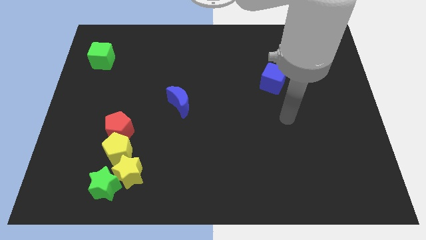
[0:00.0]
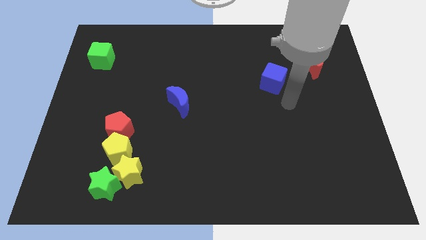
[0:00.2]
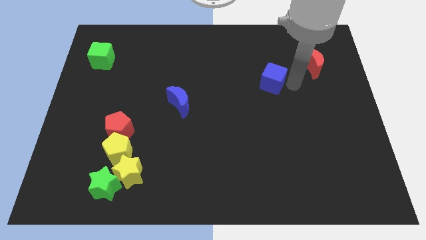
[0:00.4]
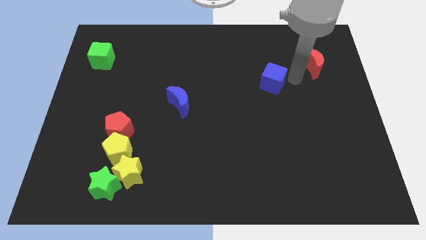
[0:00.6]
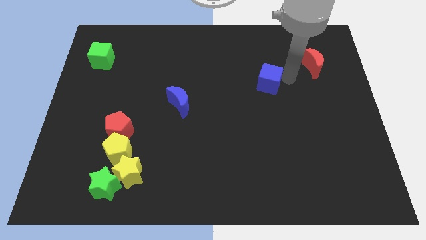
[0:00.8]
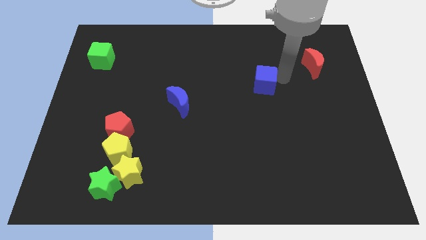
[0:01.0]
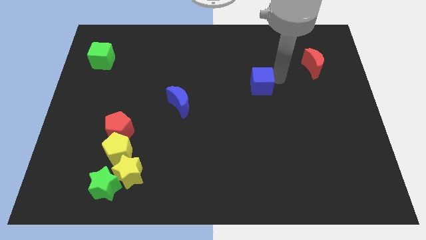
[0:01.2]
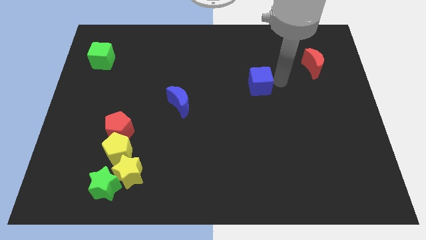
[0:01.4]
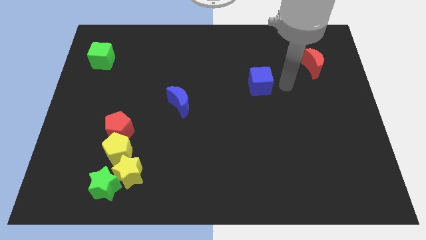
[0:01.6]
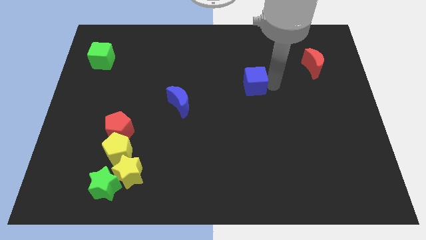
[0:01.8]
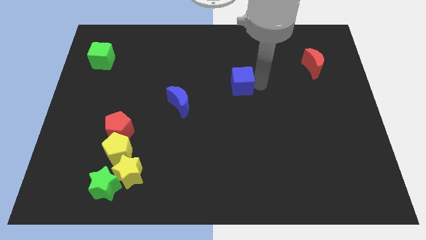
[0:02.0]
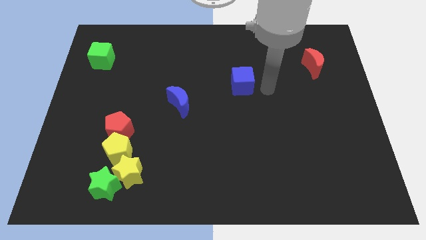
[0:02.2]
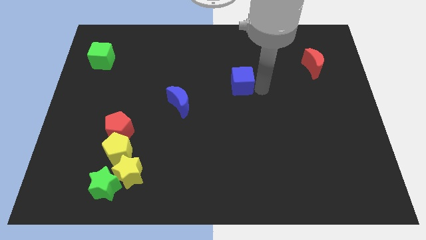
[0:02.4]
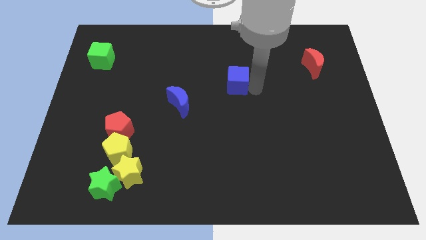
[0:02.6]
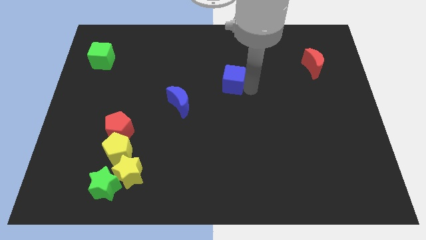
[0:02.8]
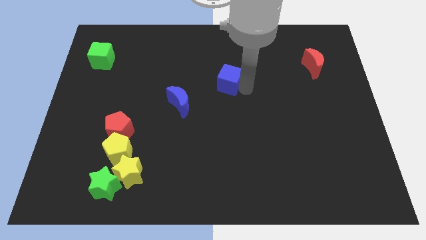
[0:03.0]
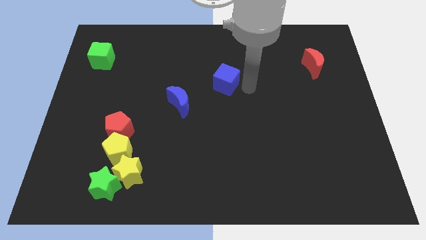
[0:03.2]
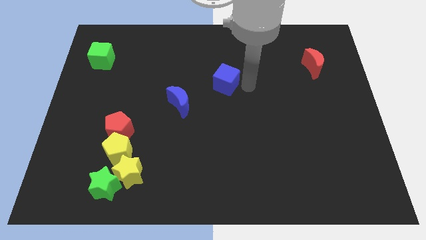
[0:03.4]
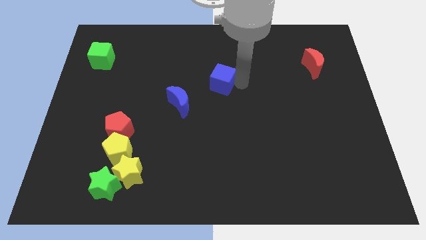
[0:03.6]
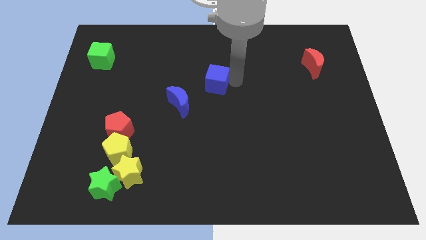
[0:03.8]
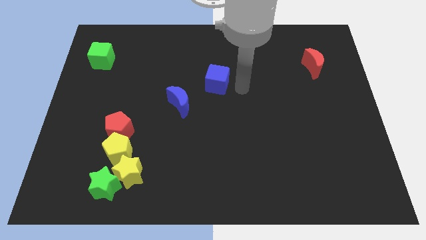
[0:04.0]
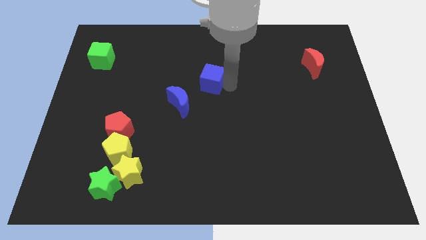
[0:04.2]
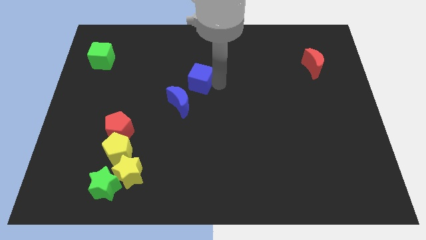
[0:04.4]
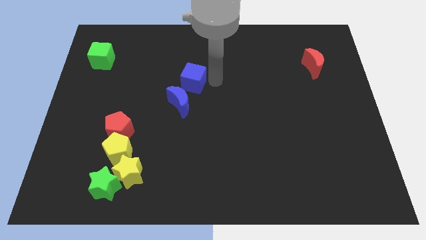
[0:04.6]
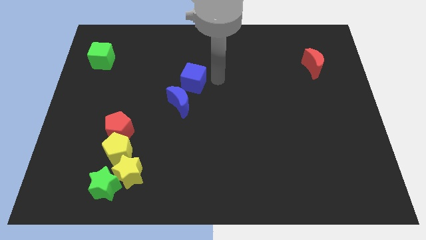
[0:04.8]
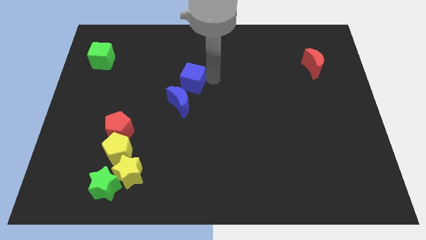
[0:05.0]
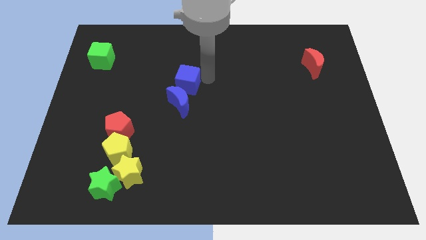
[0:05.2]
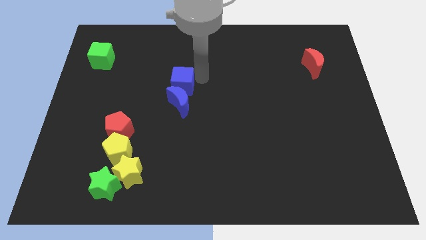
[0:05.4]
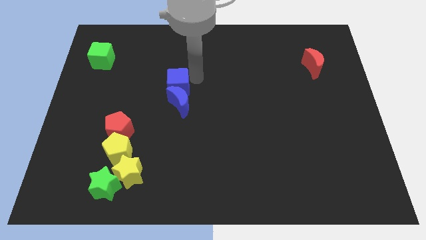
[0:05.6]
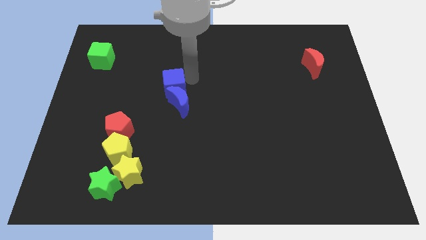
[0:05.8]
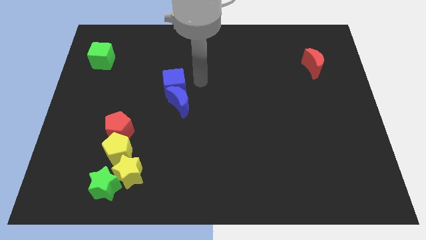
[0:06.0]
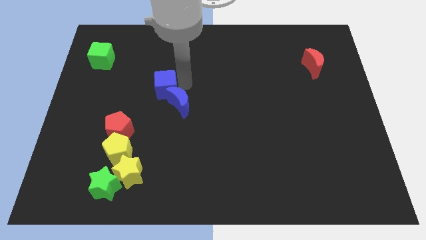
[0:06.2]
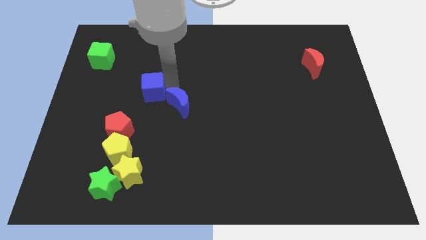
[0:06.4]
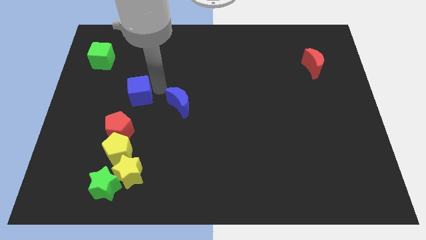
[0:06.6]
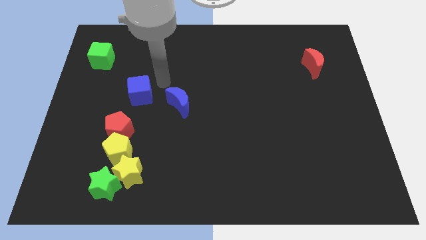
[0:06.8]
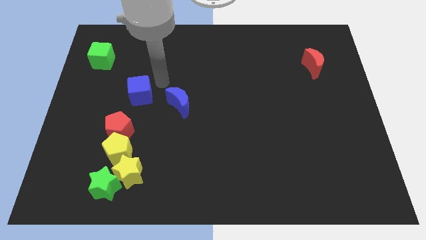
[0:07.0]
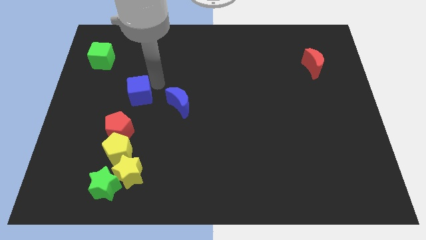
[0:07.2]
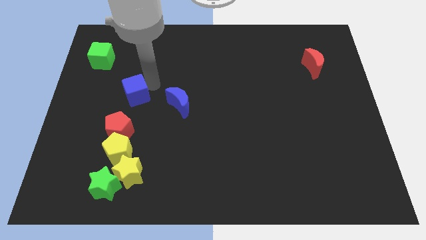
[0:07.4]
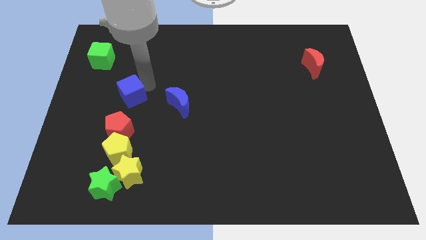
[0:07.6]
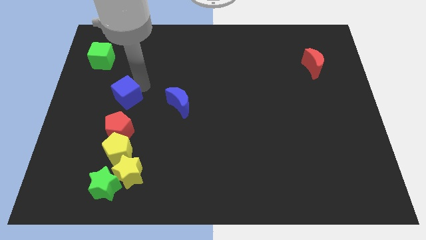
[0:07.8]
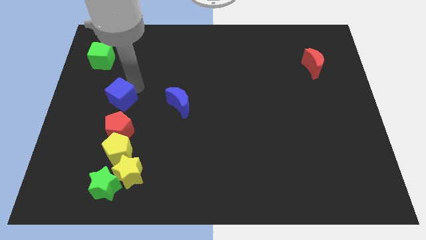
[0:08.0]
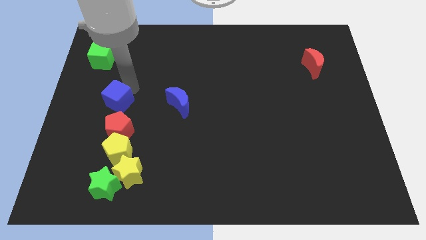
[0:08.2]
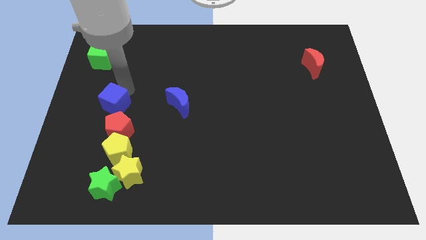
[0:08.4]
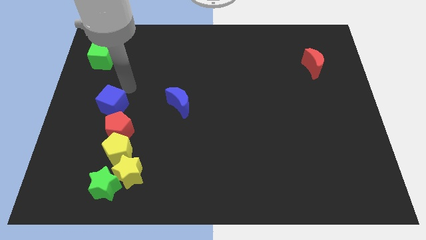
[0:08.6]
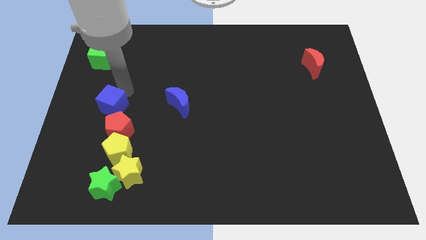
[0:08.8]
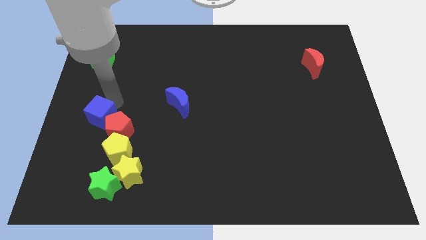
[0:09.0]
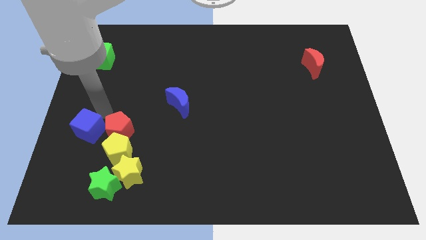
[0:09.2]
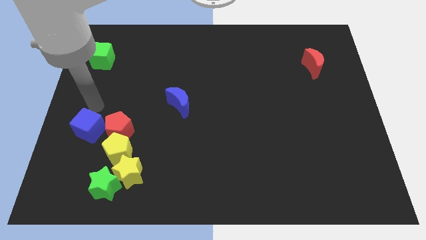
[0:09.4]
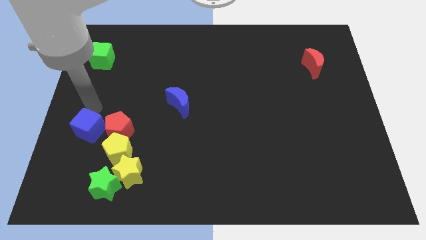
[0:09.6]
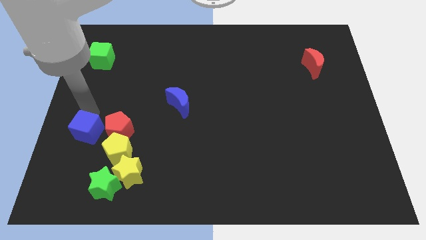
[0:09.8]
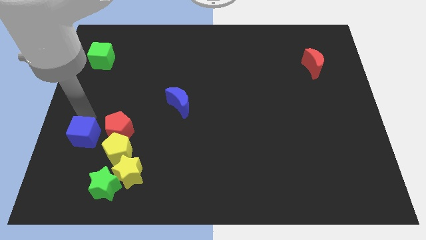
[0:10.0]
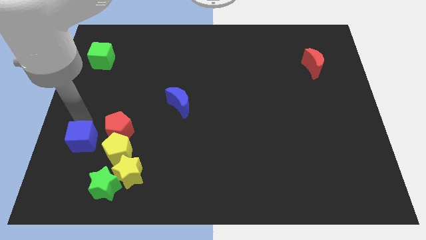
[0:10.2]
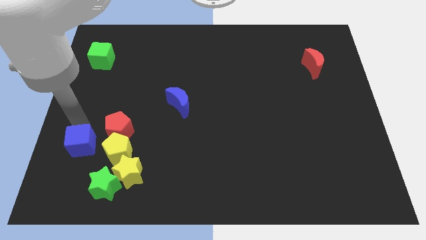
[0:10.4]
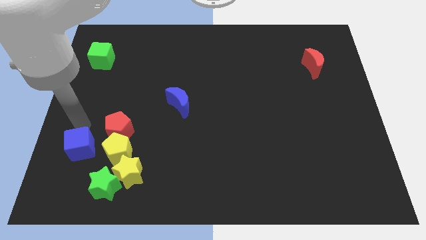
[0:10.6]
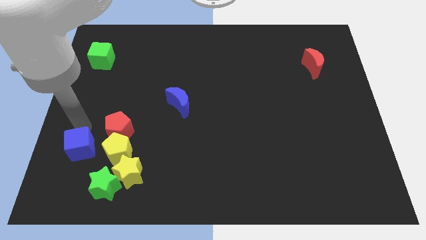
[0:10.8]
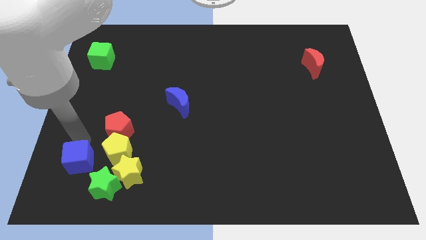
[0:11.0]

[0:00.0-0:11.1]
put the blue cube left of the yellow star

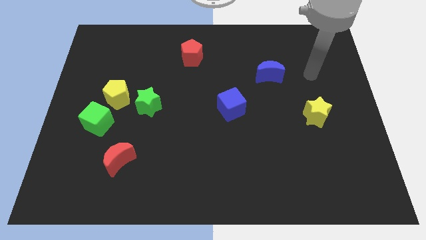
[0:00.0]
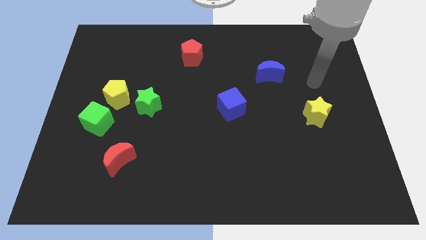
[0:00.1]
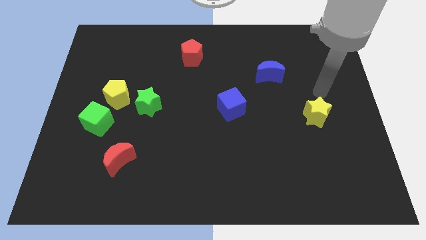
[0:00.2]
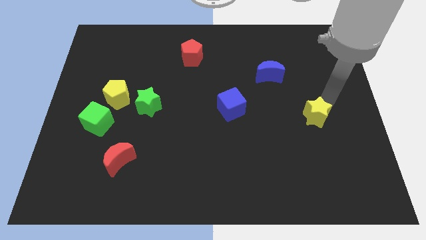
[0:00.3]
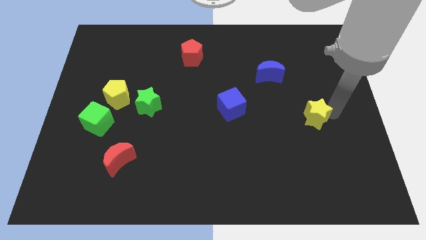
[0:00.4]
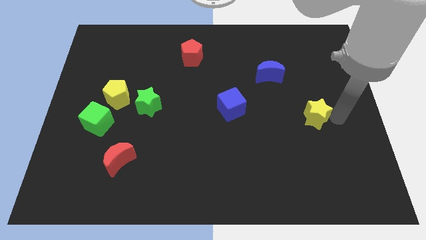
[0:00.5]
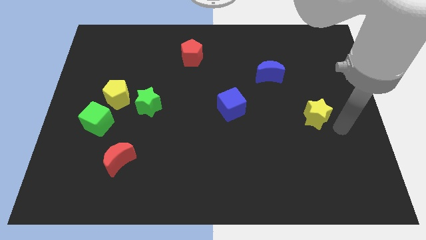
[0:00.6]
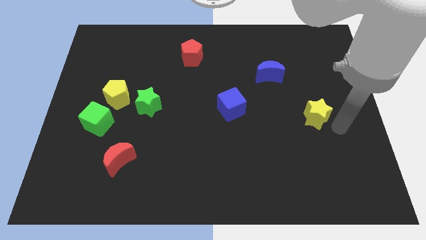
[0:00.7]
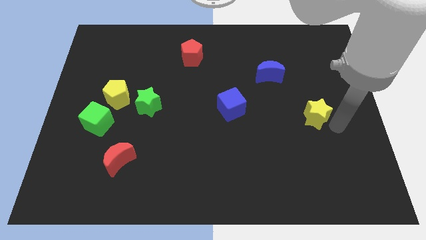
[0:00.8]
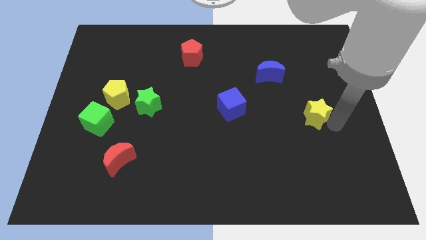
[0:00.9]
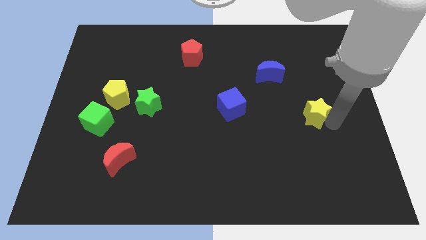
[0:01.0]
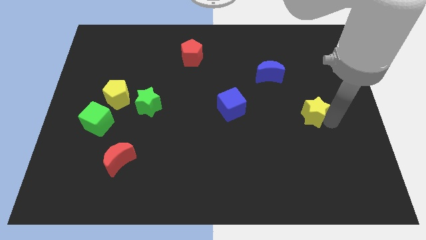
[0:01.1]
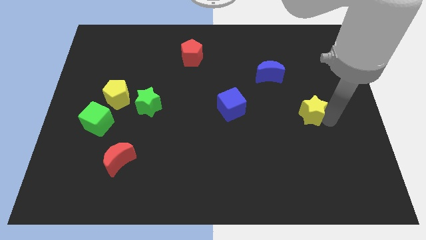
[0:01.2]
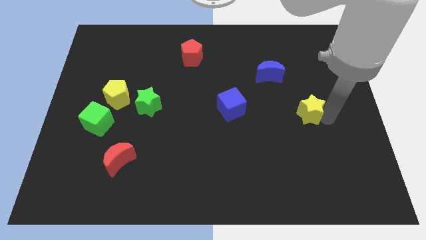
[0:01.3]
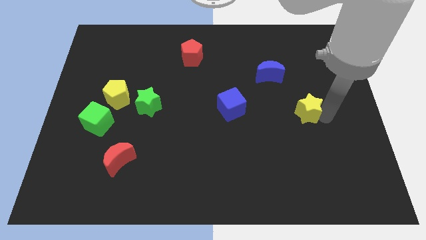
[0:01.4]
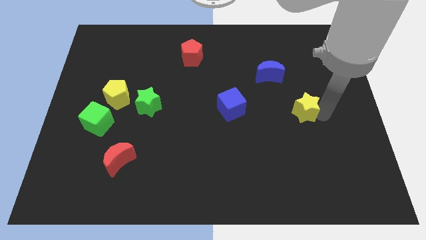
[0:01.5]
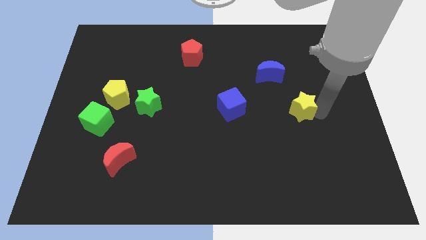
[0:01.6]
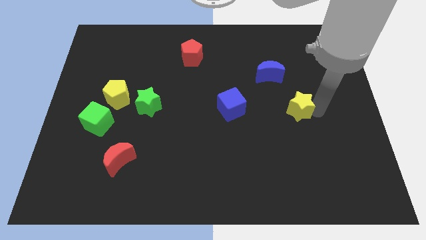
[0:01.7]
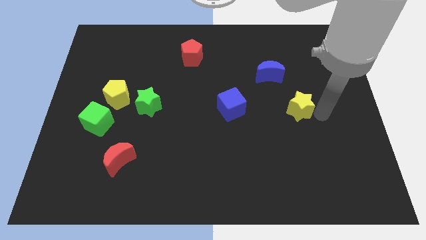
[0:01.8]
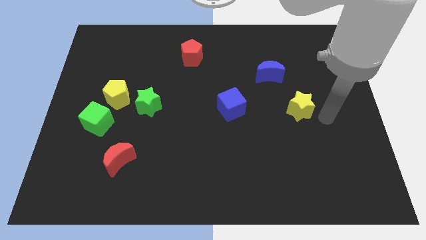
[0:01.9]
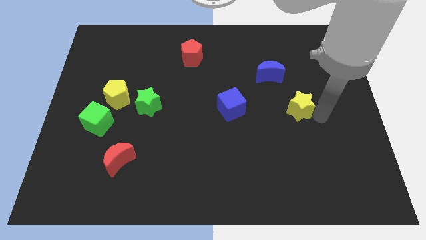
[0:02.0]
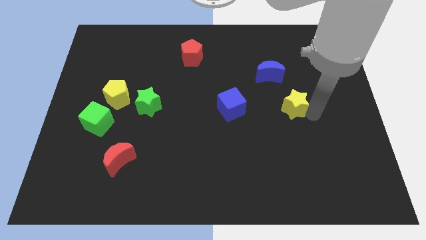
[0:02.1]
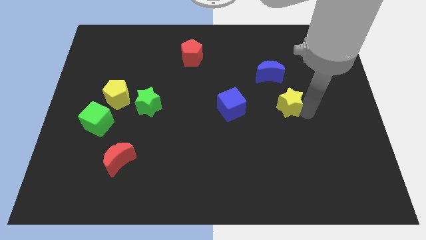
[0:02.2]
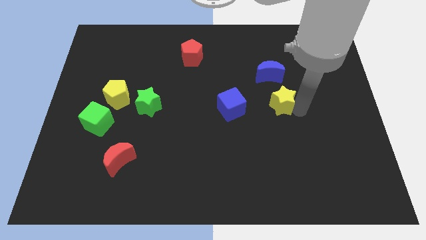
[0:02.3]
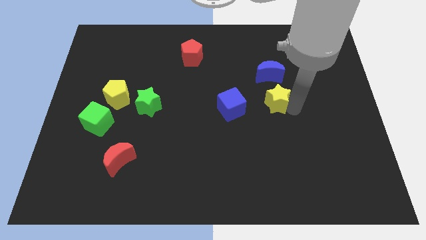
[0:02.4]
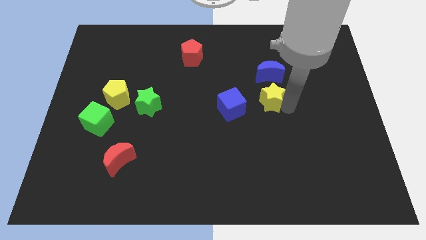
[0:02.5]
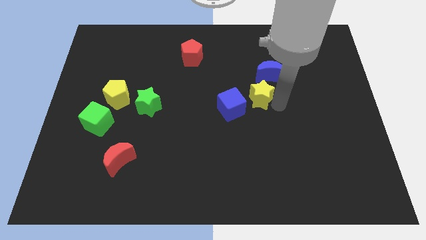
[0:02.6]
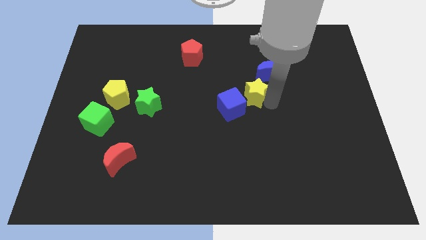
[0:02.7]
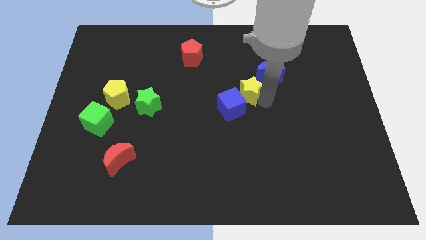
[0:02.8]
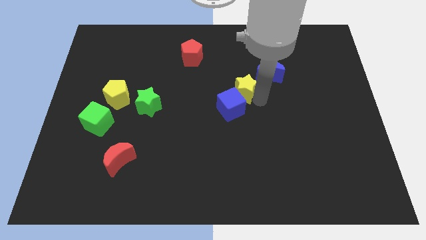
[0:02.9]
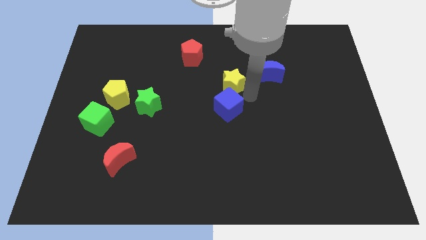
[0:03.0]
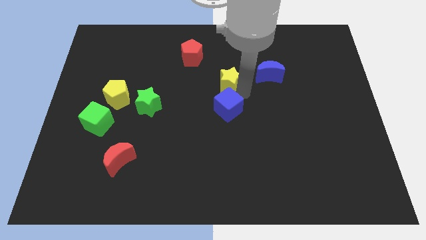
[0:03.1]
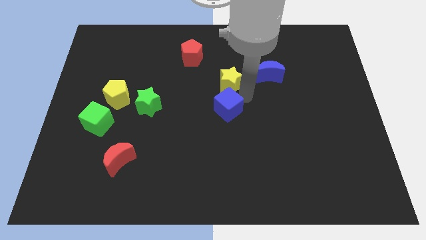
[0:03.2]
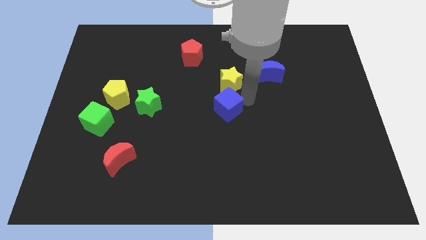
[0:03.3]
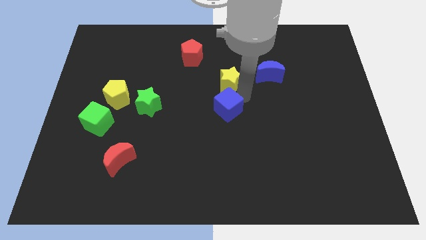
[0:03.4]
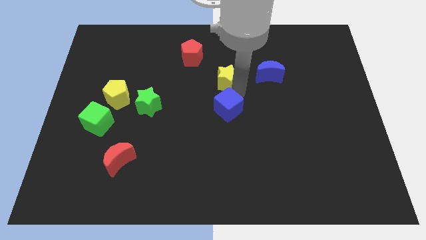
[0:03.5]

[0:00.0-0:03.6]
move the yellow star diagonally down and to the right of the red pentagon
